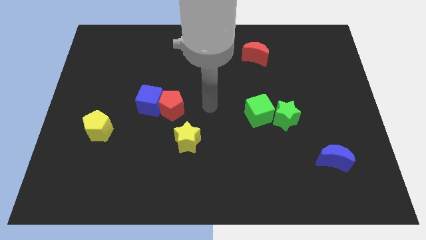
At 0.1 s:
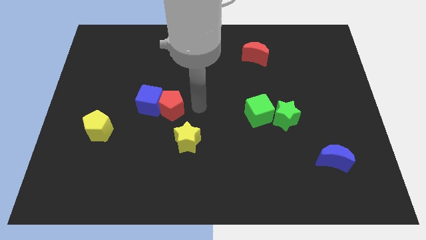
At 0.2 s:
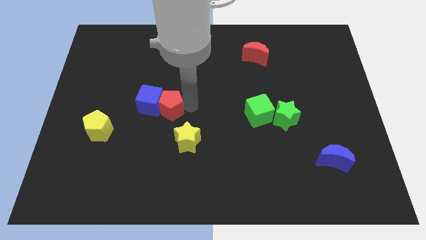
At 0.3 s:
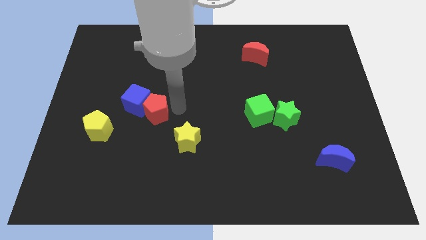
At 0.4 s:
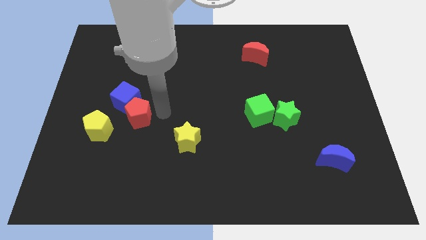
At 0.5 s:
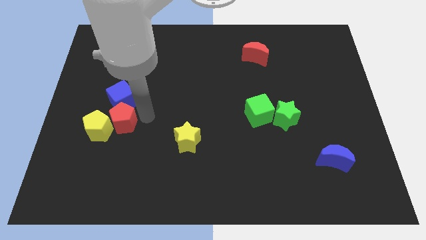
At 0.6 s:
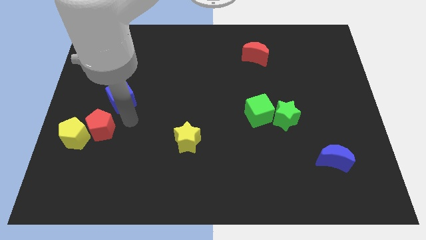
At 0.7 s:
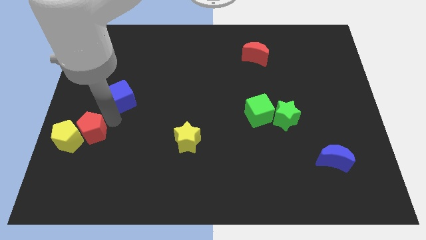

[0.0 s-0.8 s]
move the blue cube away from the red pentagon

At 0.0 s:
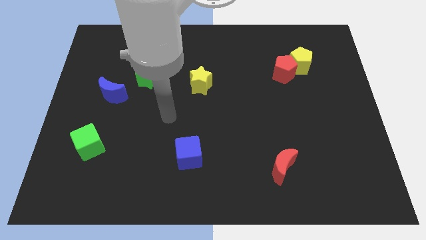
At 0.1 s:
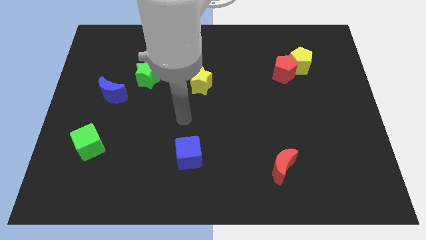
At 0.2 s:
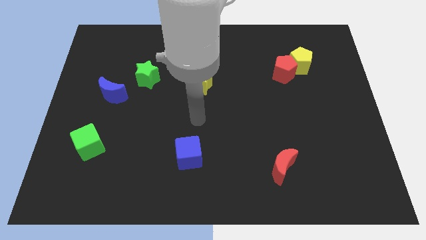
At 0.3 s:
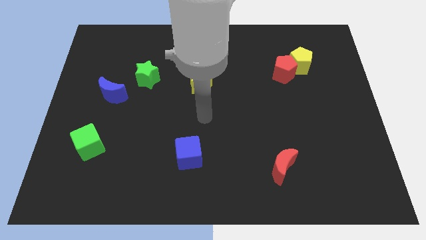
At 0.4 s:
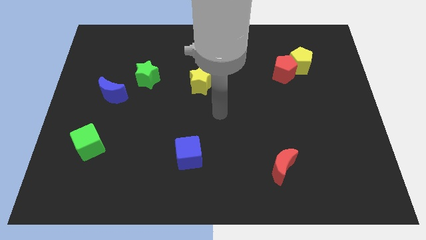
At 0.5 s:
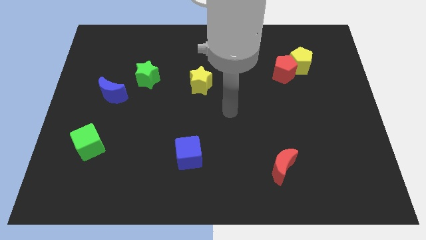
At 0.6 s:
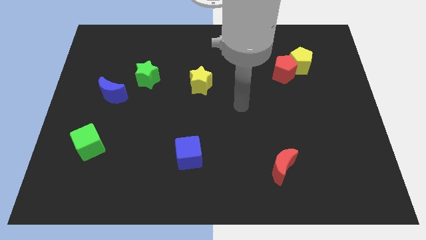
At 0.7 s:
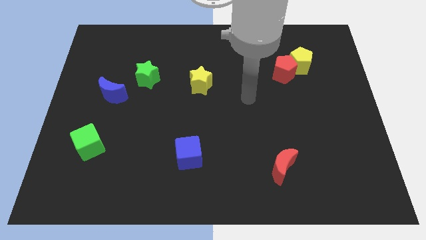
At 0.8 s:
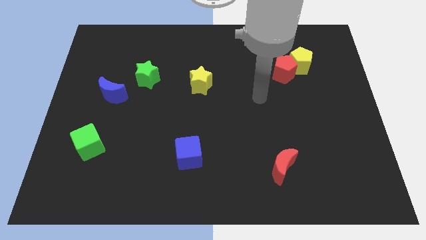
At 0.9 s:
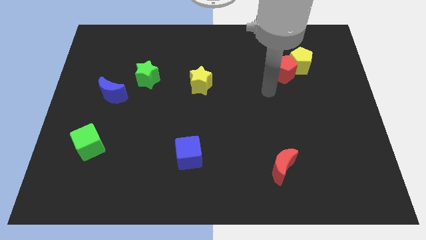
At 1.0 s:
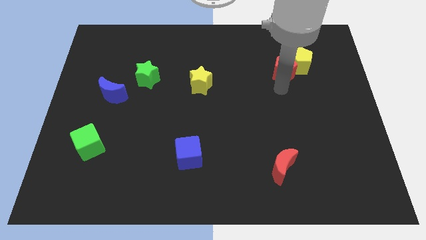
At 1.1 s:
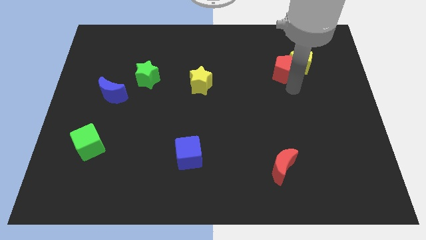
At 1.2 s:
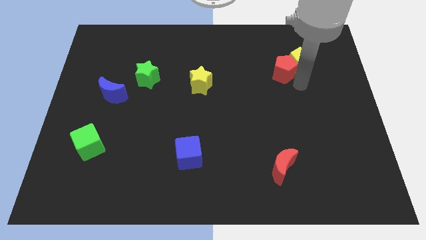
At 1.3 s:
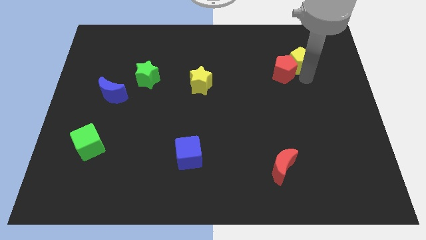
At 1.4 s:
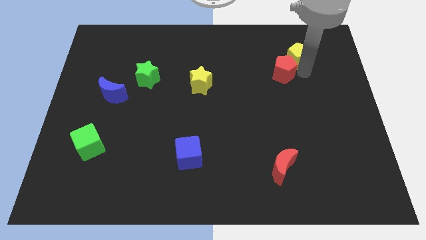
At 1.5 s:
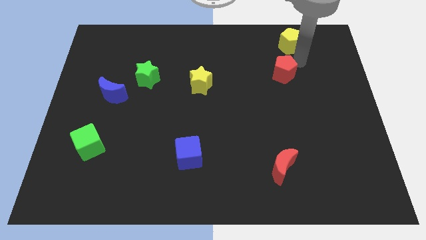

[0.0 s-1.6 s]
move the red pentagon away from the yellow pentagon

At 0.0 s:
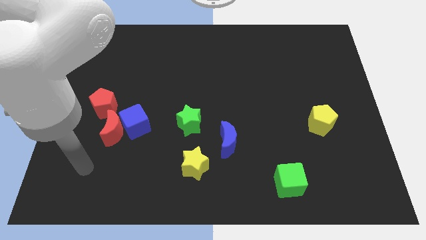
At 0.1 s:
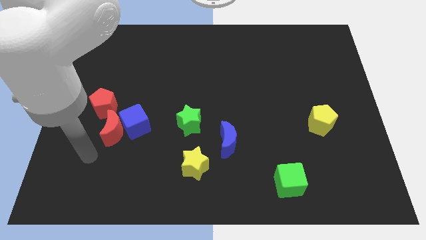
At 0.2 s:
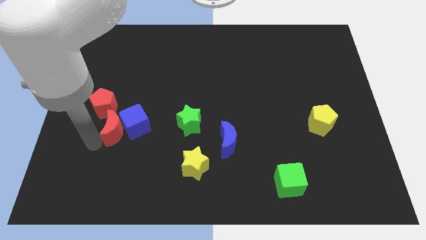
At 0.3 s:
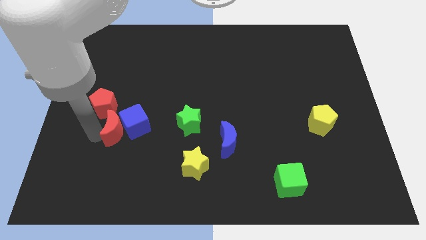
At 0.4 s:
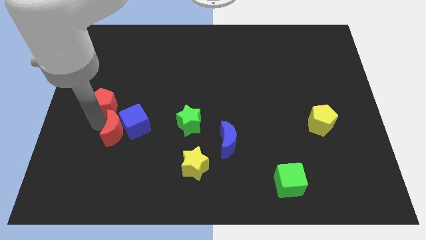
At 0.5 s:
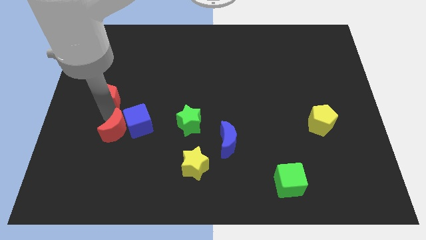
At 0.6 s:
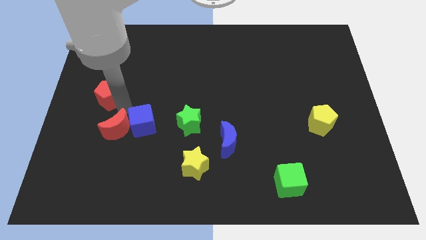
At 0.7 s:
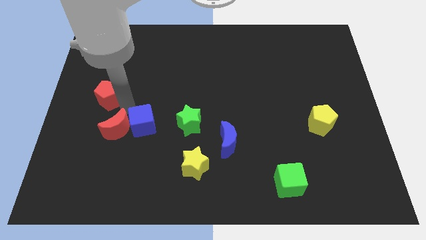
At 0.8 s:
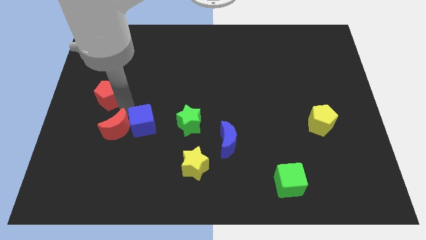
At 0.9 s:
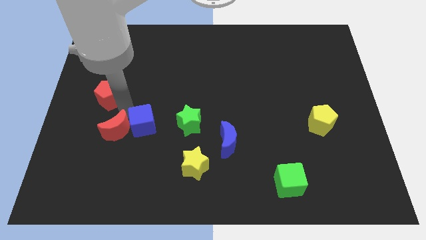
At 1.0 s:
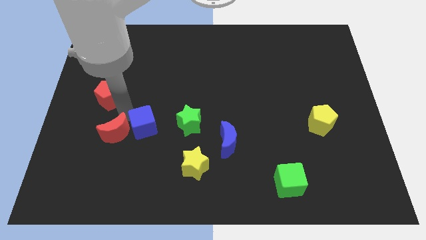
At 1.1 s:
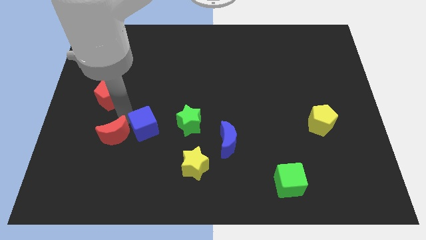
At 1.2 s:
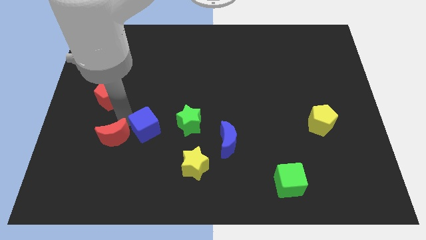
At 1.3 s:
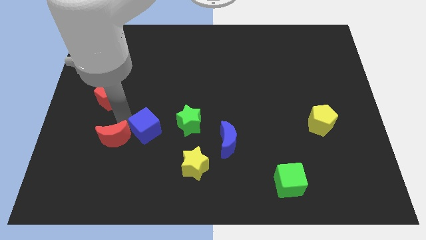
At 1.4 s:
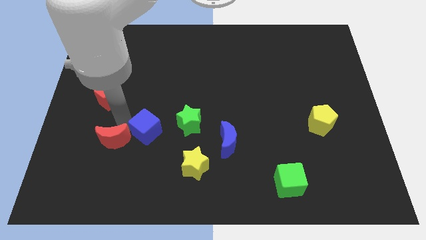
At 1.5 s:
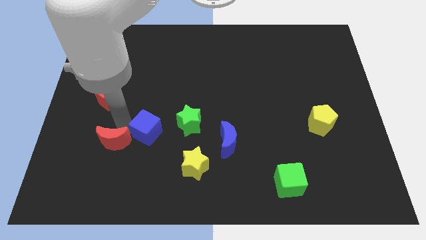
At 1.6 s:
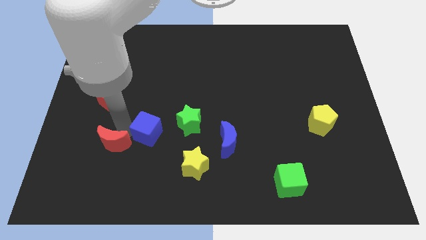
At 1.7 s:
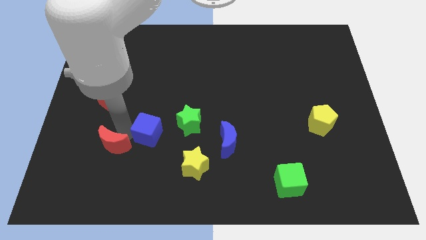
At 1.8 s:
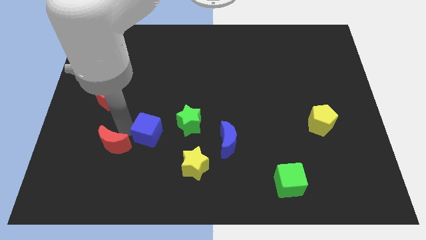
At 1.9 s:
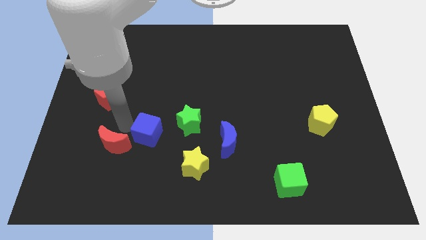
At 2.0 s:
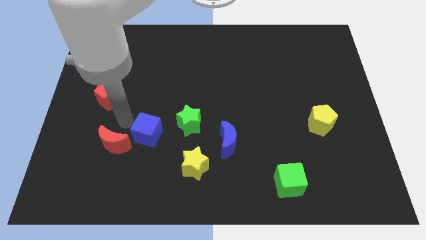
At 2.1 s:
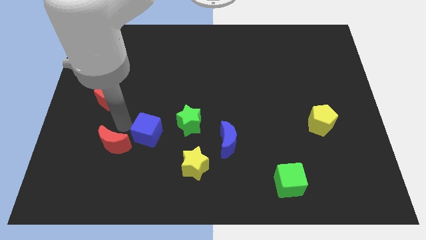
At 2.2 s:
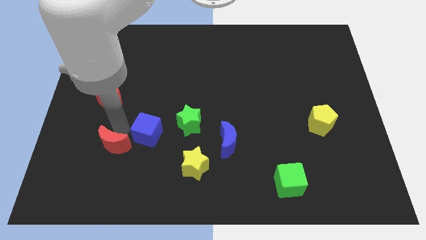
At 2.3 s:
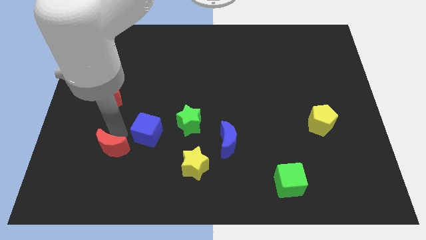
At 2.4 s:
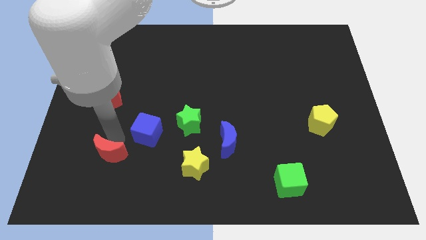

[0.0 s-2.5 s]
move the red moon away from the blue cube and red pentagon

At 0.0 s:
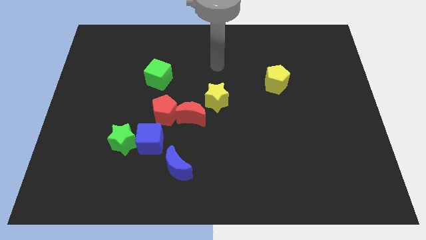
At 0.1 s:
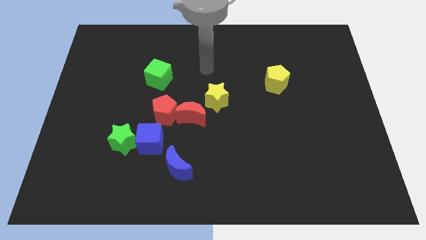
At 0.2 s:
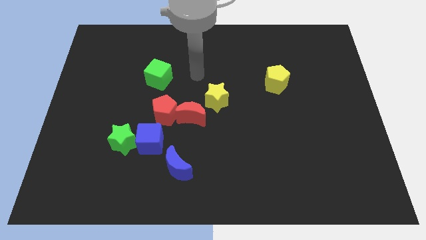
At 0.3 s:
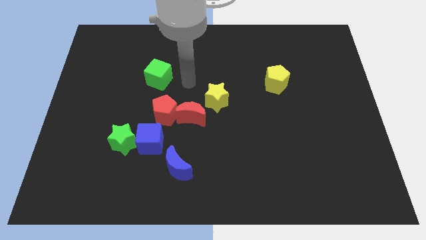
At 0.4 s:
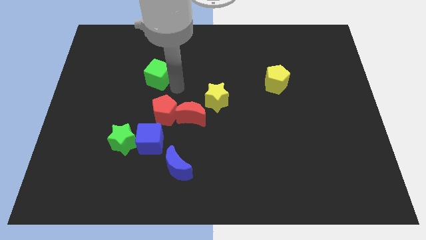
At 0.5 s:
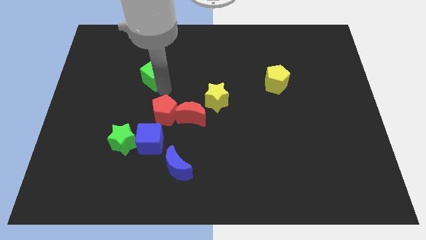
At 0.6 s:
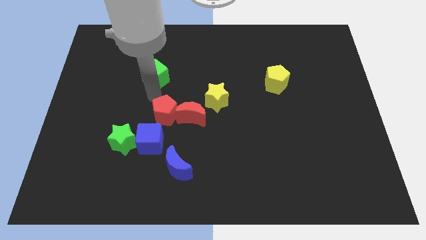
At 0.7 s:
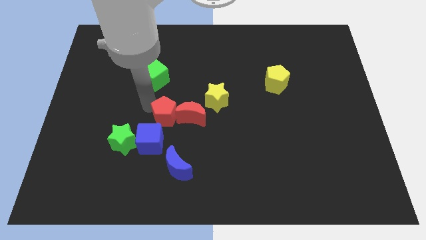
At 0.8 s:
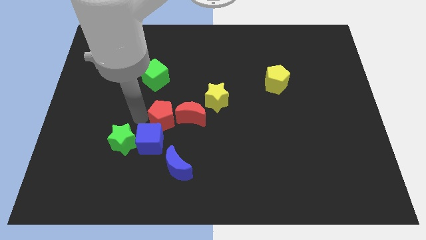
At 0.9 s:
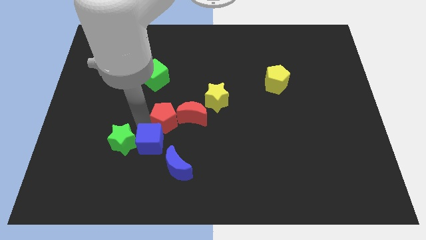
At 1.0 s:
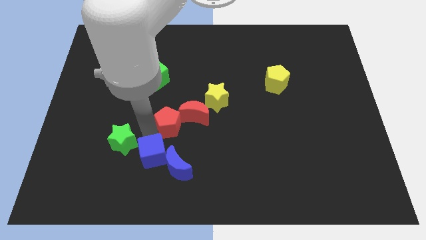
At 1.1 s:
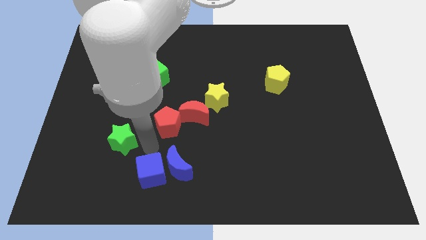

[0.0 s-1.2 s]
move the green star away from the blue cube

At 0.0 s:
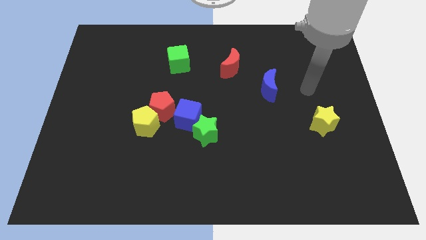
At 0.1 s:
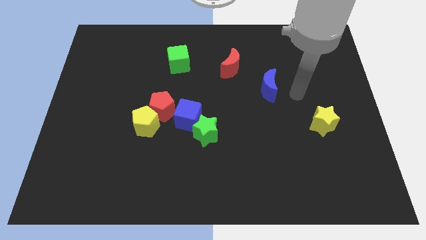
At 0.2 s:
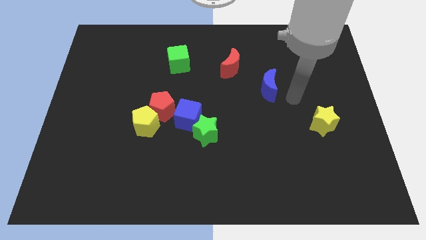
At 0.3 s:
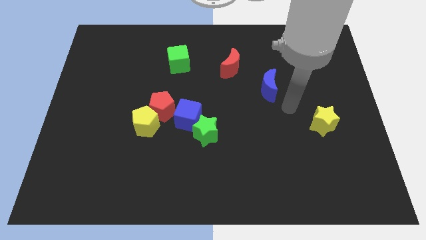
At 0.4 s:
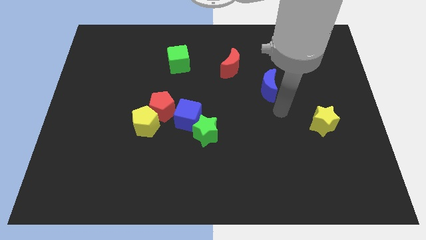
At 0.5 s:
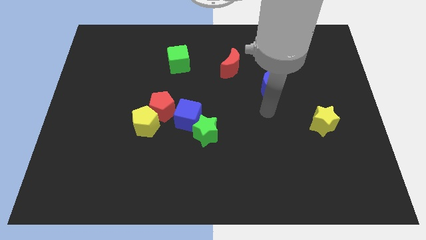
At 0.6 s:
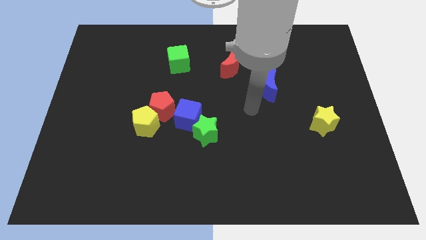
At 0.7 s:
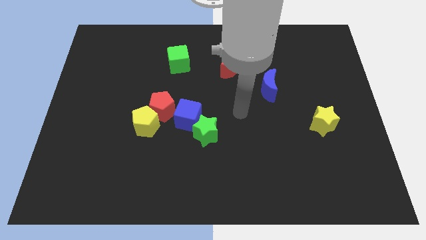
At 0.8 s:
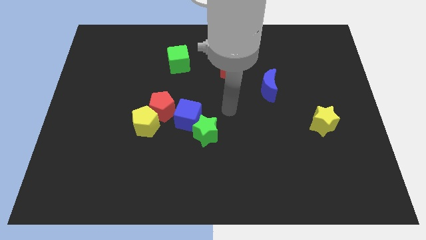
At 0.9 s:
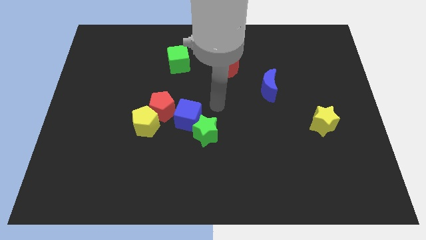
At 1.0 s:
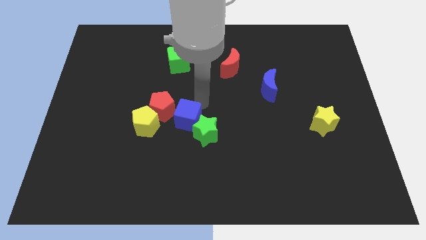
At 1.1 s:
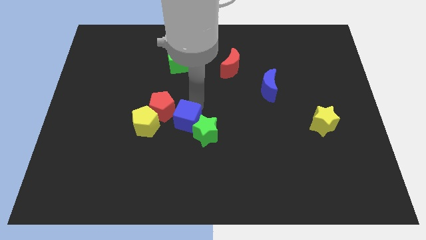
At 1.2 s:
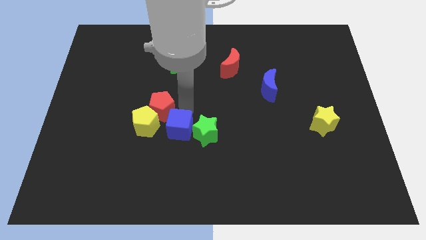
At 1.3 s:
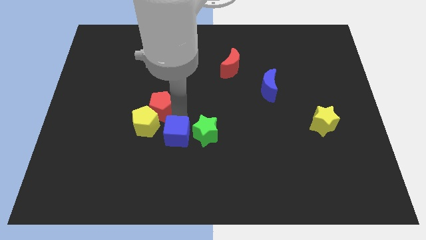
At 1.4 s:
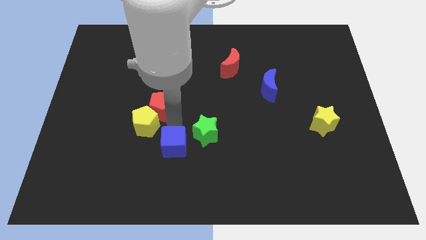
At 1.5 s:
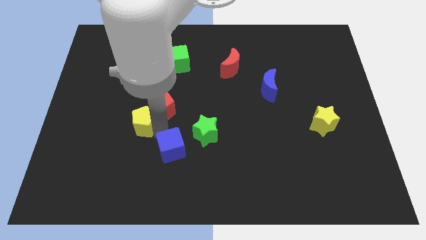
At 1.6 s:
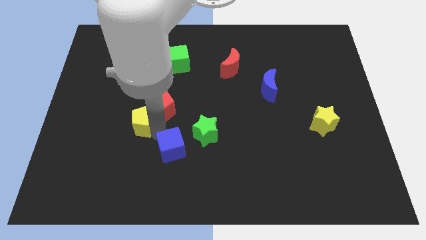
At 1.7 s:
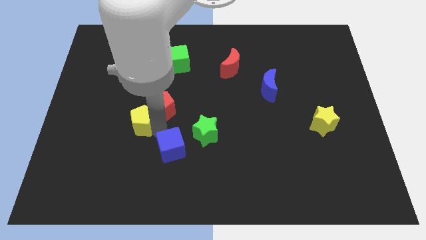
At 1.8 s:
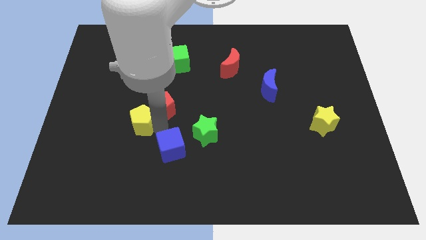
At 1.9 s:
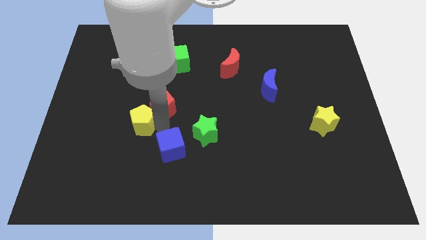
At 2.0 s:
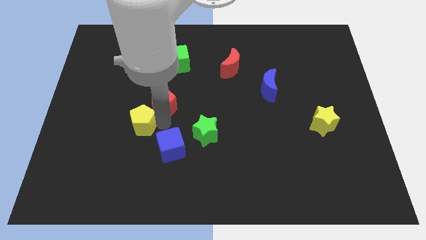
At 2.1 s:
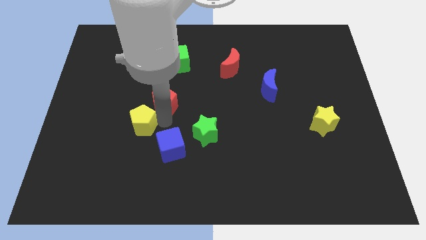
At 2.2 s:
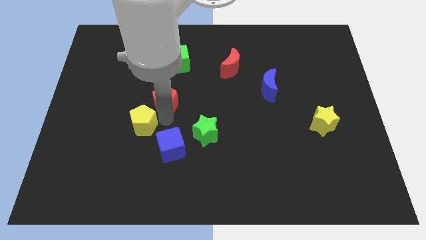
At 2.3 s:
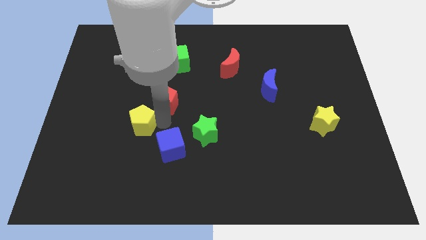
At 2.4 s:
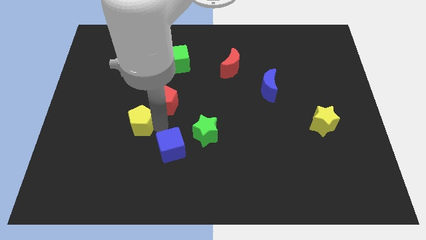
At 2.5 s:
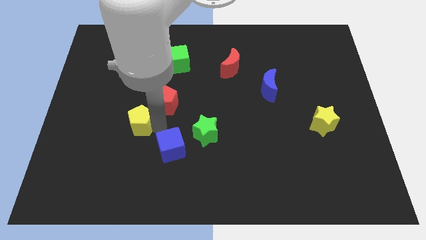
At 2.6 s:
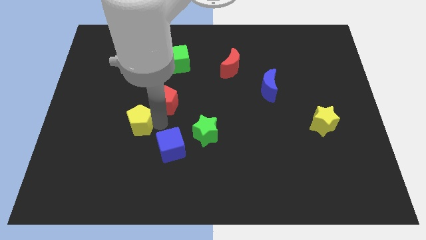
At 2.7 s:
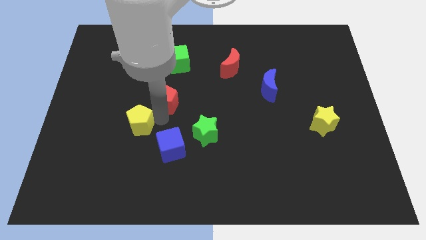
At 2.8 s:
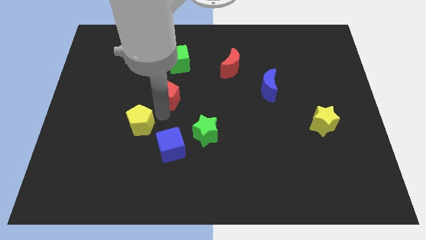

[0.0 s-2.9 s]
separate the red pentagon from the yellow pentagon and blue cube

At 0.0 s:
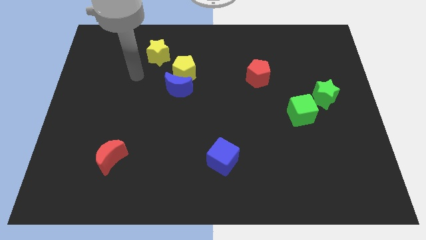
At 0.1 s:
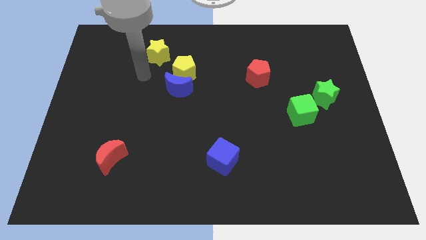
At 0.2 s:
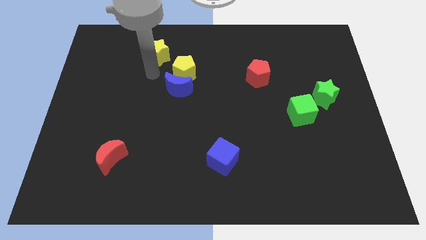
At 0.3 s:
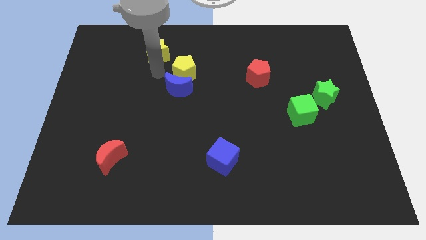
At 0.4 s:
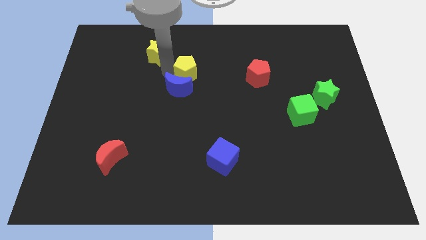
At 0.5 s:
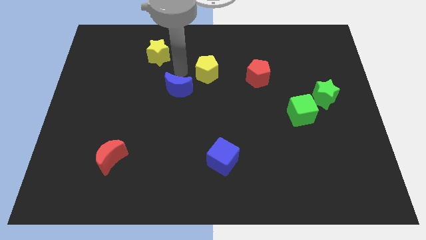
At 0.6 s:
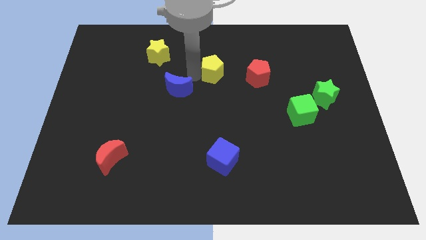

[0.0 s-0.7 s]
move the blue moon away from the yellow pentagon
